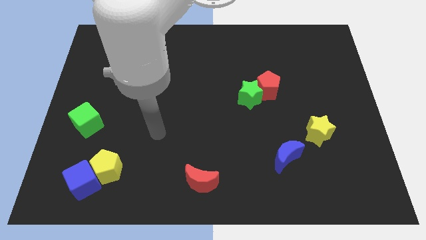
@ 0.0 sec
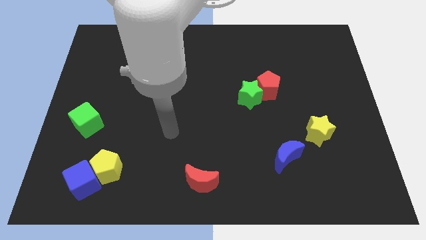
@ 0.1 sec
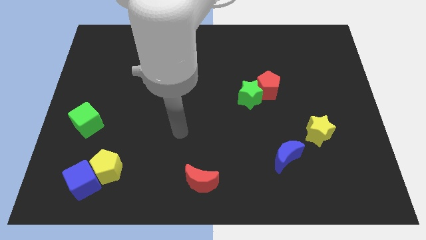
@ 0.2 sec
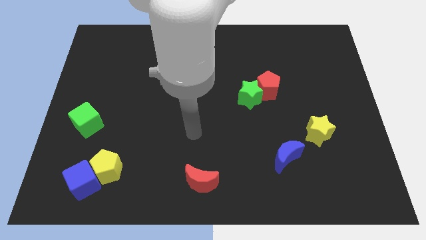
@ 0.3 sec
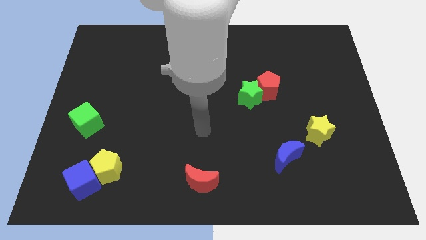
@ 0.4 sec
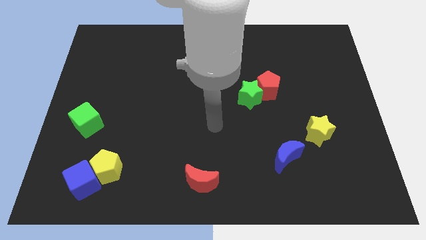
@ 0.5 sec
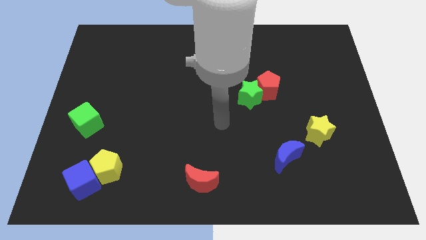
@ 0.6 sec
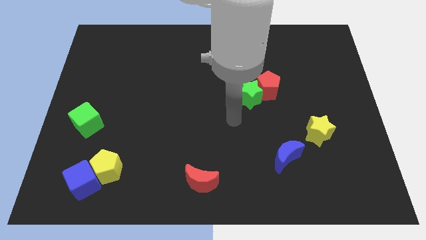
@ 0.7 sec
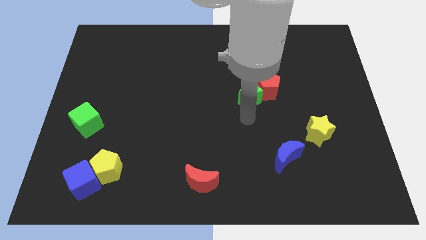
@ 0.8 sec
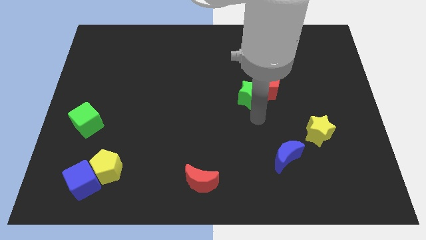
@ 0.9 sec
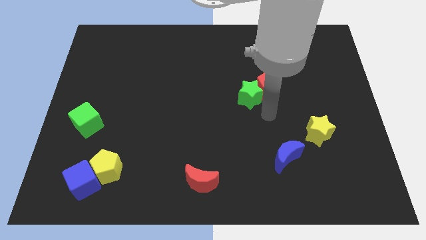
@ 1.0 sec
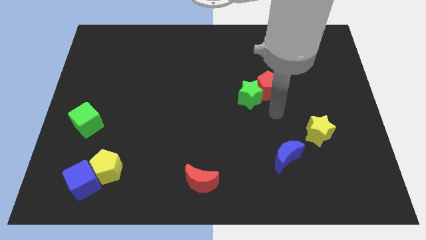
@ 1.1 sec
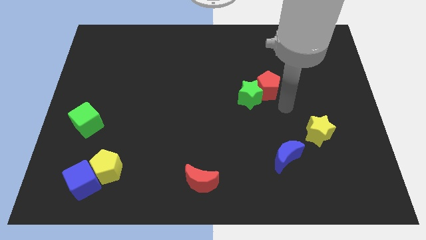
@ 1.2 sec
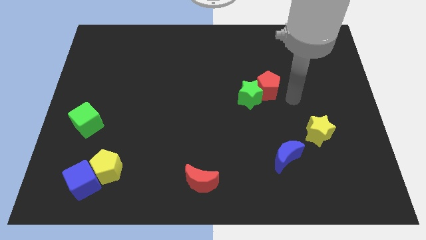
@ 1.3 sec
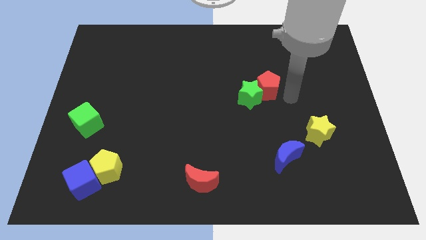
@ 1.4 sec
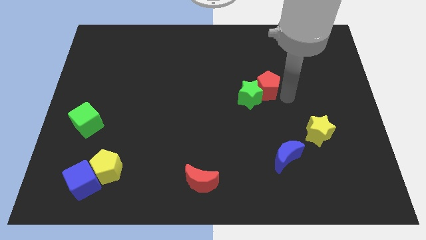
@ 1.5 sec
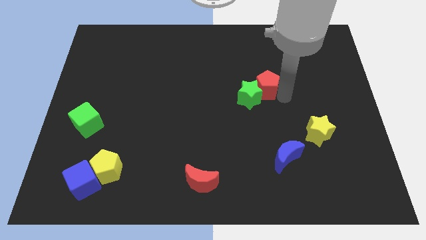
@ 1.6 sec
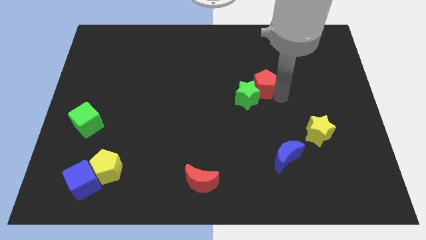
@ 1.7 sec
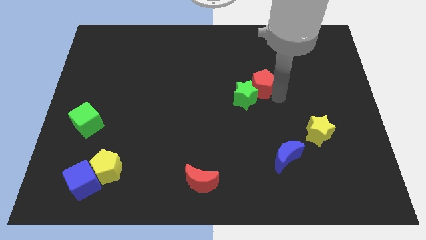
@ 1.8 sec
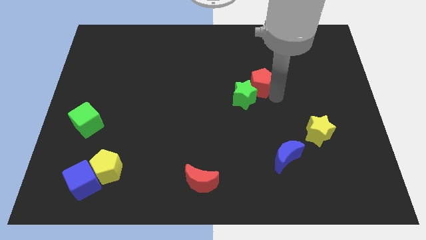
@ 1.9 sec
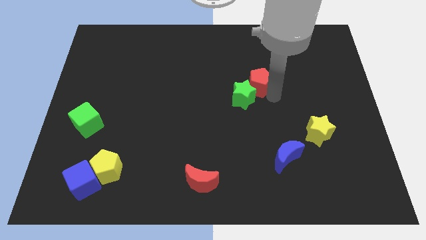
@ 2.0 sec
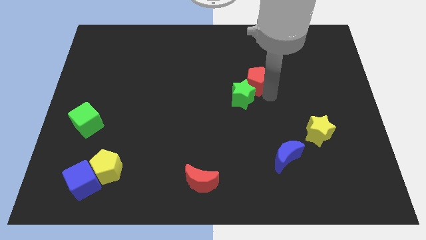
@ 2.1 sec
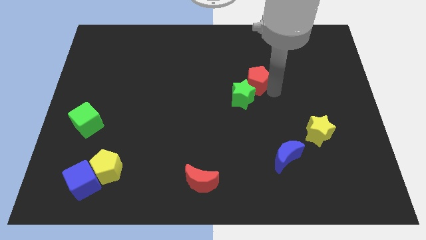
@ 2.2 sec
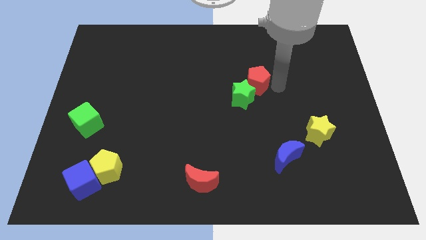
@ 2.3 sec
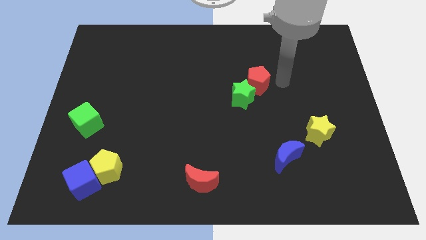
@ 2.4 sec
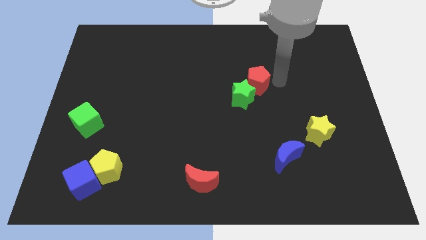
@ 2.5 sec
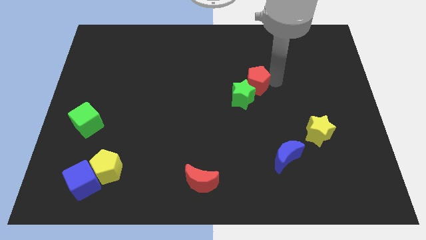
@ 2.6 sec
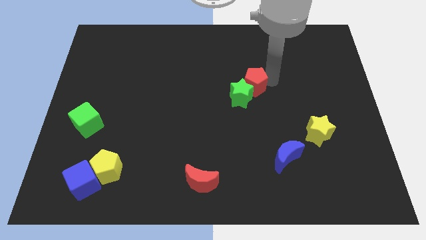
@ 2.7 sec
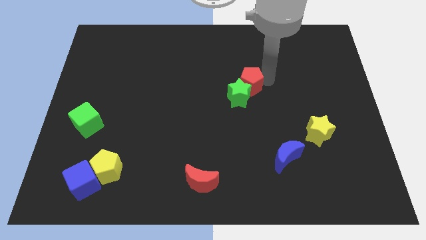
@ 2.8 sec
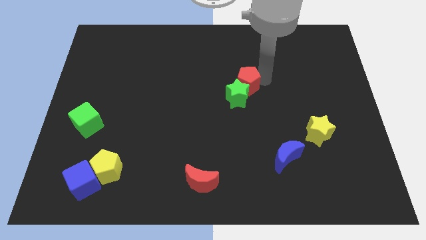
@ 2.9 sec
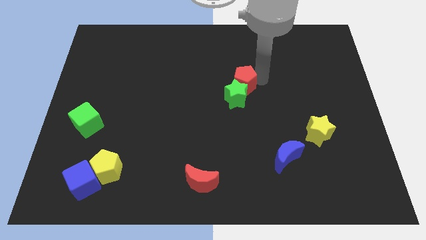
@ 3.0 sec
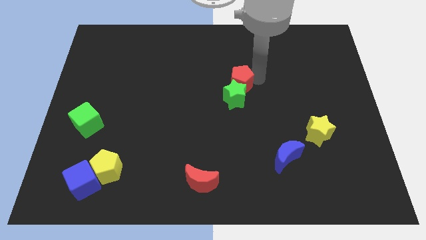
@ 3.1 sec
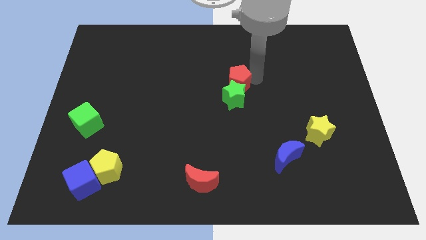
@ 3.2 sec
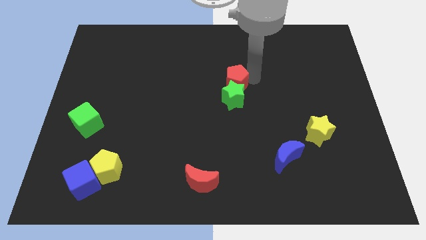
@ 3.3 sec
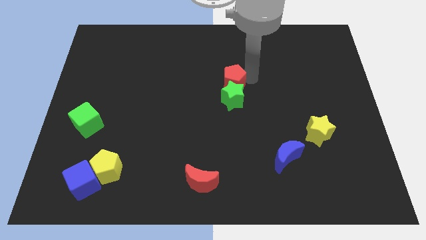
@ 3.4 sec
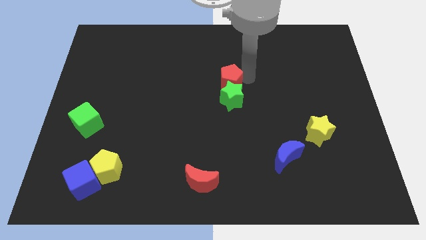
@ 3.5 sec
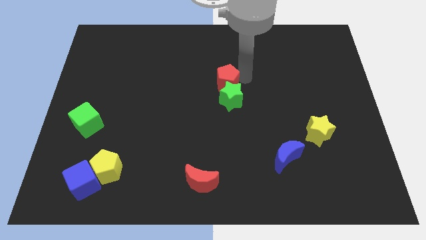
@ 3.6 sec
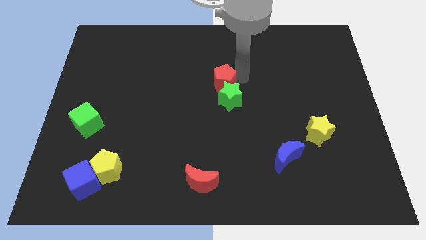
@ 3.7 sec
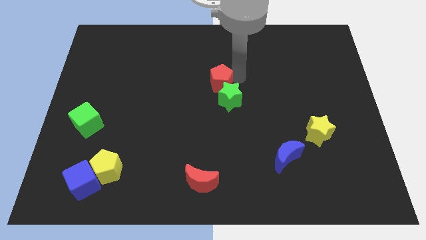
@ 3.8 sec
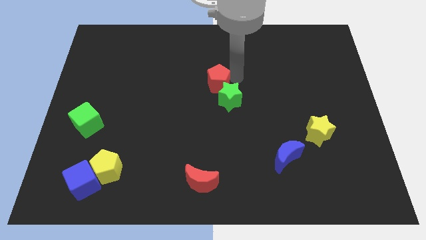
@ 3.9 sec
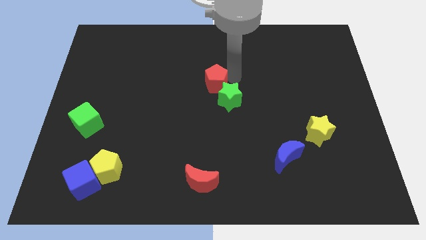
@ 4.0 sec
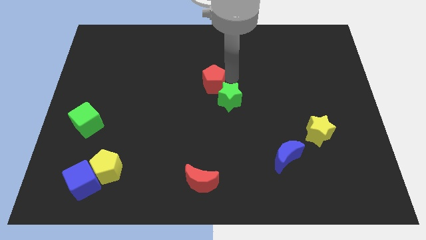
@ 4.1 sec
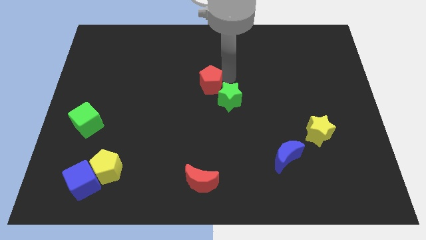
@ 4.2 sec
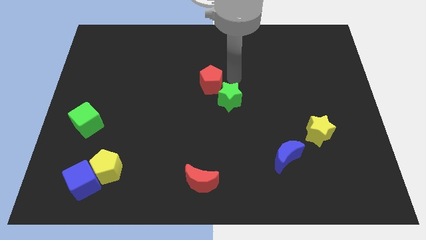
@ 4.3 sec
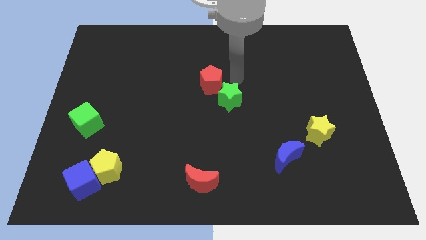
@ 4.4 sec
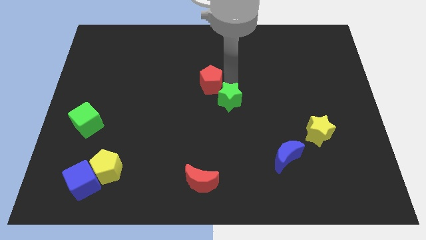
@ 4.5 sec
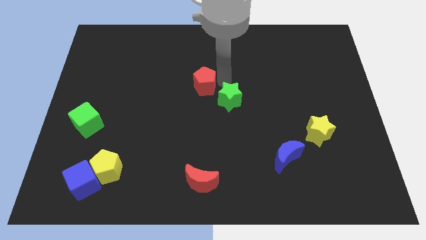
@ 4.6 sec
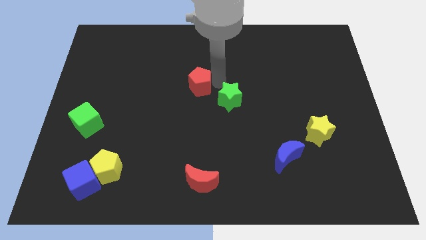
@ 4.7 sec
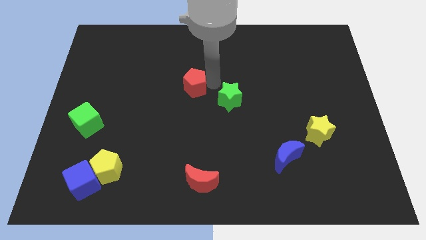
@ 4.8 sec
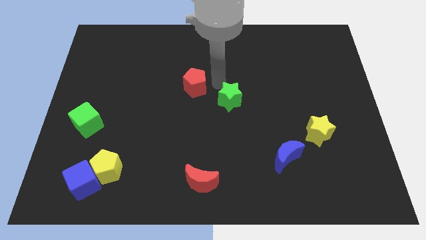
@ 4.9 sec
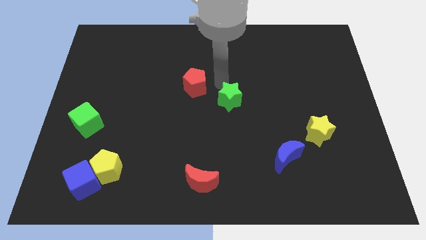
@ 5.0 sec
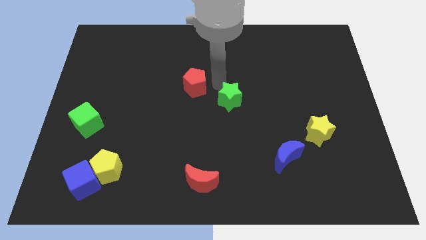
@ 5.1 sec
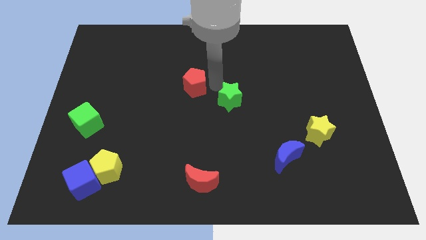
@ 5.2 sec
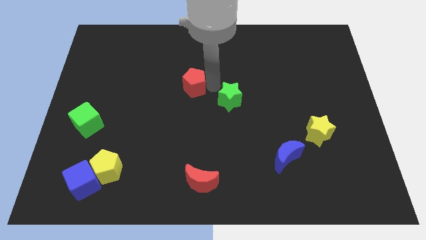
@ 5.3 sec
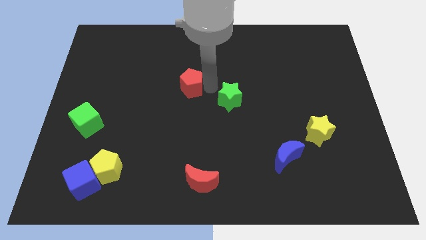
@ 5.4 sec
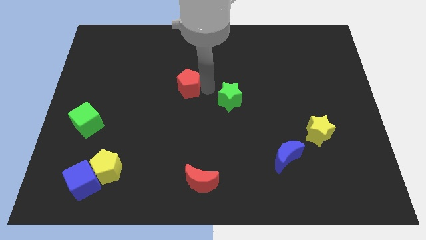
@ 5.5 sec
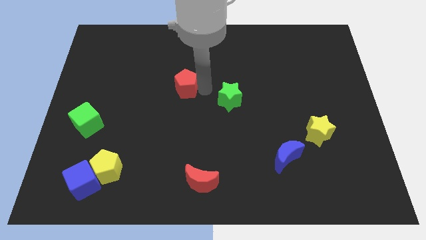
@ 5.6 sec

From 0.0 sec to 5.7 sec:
slide the red pentagon left

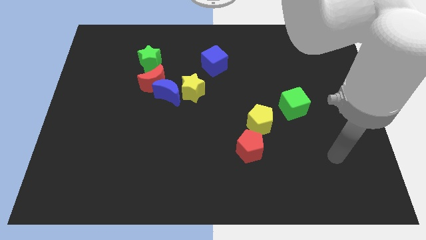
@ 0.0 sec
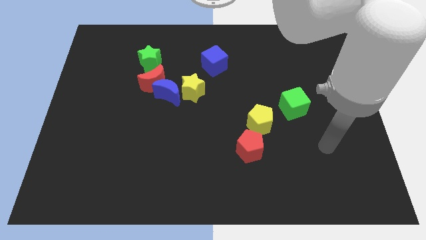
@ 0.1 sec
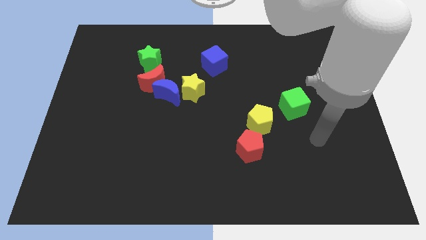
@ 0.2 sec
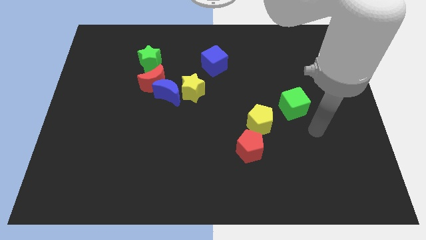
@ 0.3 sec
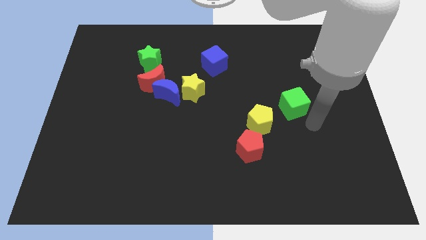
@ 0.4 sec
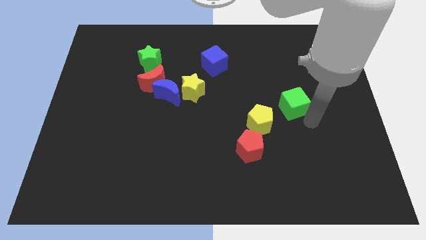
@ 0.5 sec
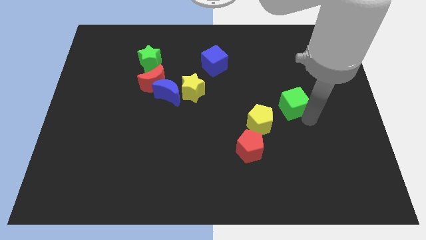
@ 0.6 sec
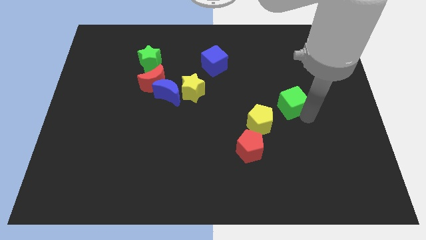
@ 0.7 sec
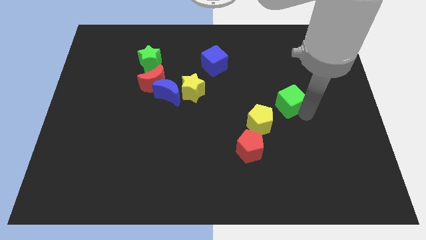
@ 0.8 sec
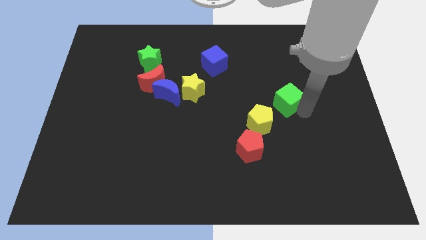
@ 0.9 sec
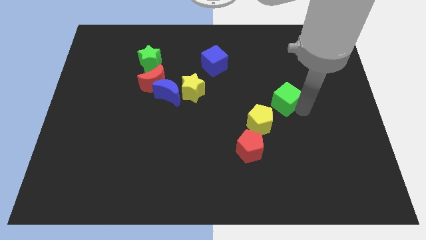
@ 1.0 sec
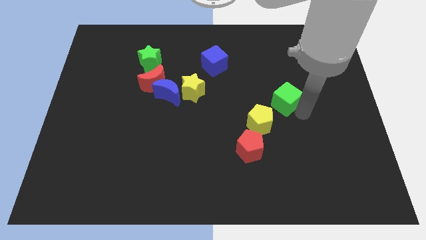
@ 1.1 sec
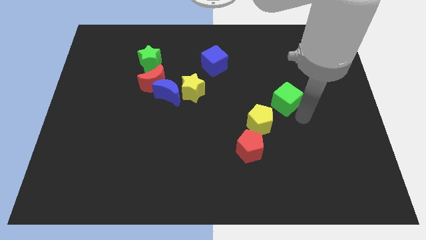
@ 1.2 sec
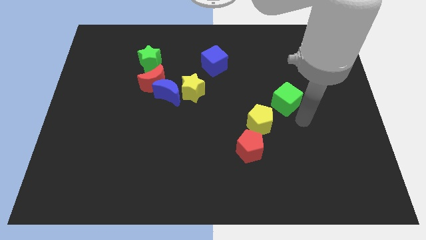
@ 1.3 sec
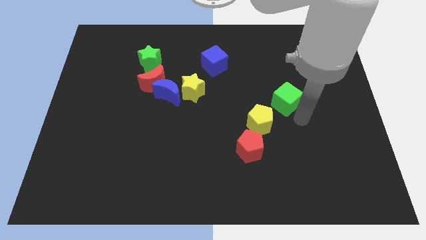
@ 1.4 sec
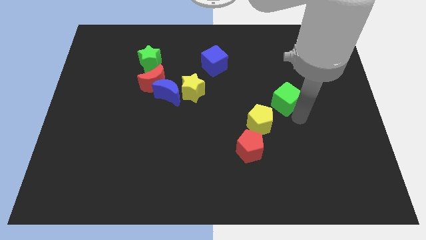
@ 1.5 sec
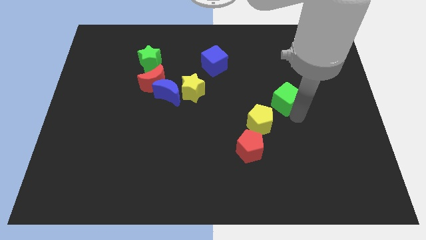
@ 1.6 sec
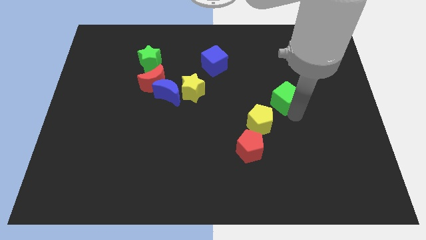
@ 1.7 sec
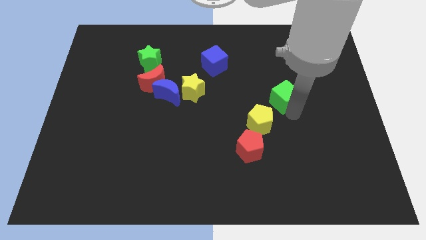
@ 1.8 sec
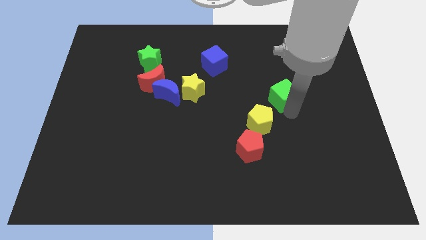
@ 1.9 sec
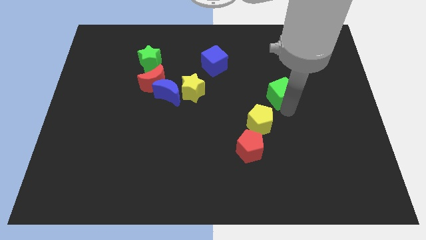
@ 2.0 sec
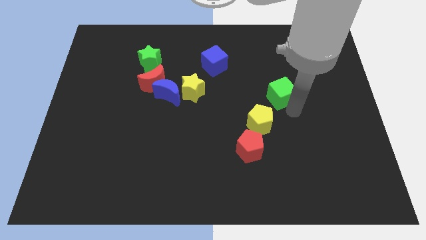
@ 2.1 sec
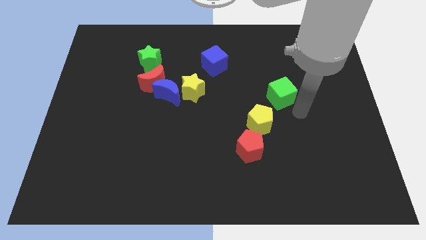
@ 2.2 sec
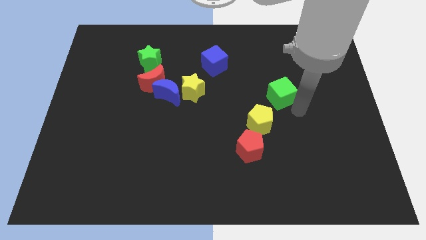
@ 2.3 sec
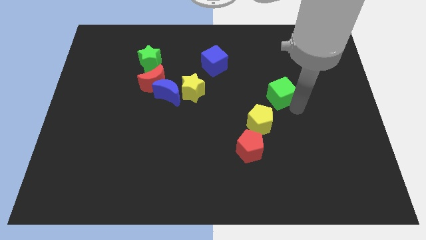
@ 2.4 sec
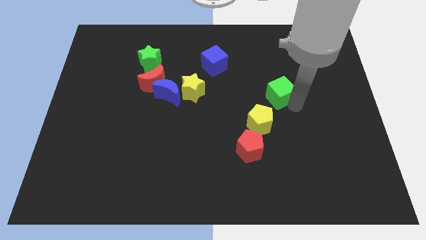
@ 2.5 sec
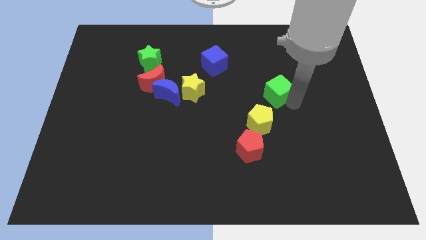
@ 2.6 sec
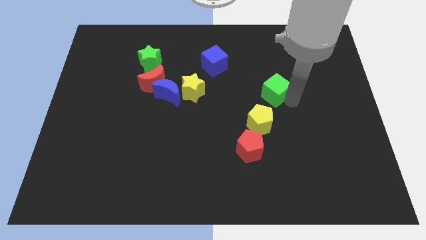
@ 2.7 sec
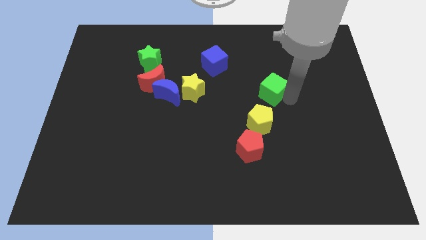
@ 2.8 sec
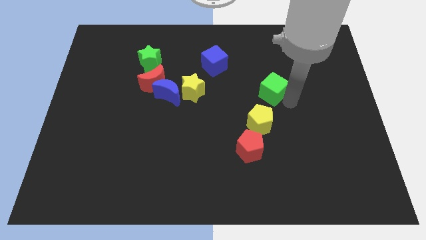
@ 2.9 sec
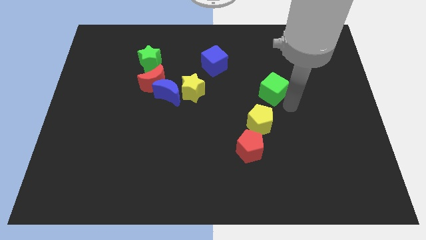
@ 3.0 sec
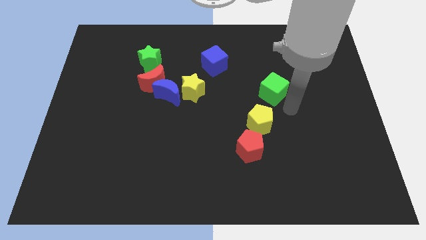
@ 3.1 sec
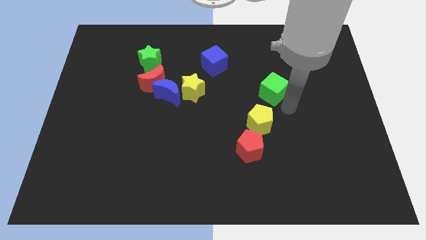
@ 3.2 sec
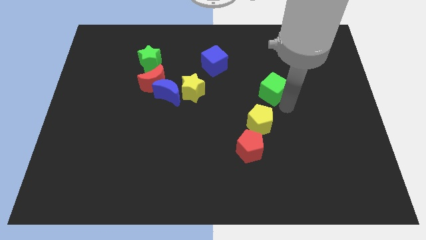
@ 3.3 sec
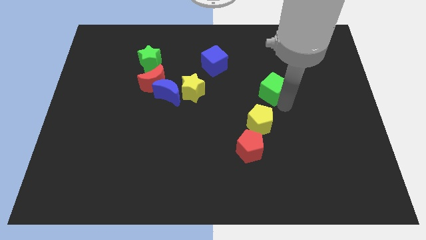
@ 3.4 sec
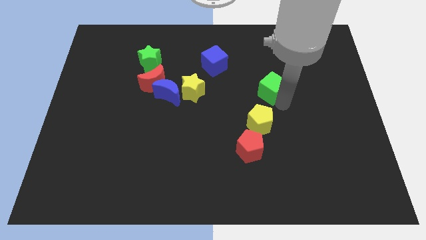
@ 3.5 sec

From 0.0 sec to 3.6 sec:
slide the green cube a bit upwards and to the left diagonally
